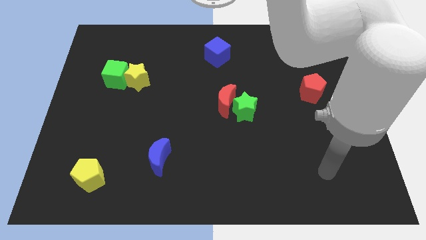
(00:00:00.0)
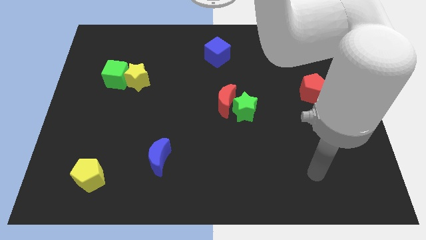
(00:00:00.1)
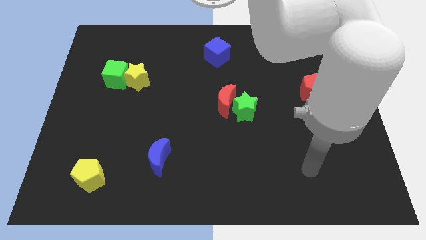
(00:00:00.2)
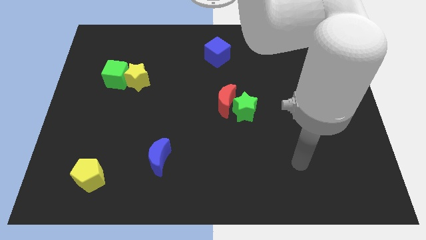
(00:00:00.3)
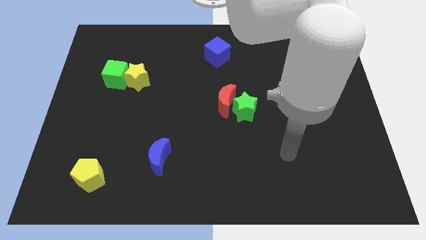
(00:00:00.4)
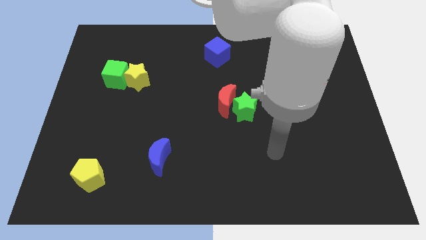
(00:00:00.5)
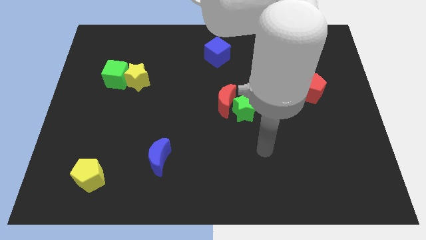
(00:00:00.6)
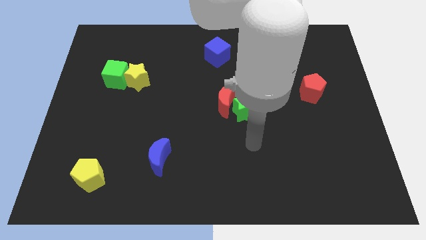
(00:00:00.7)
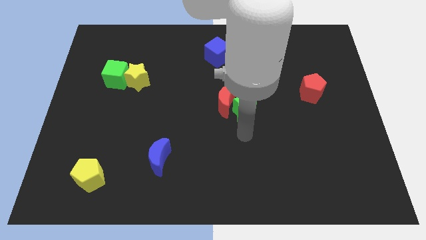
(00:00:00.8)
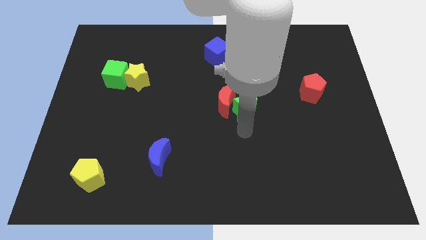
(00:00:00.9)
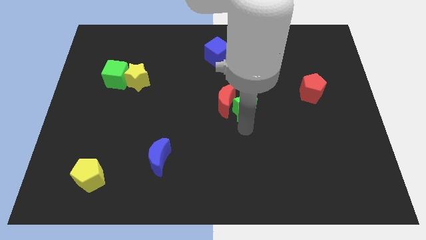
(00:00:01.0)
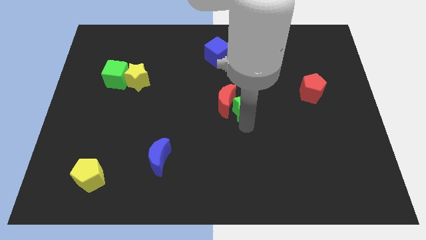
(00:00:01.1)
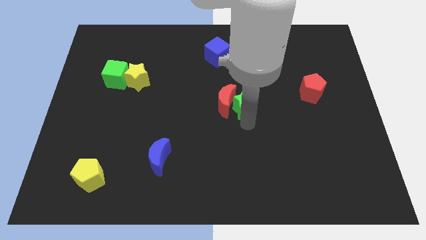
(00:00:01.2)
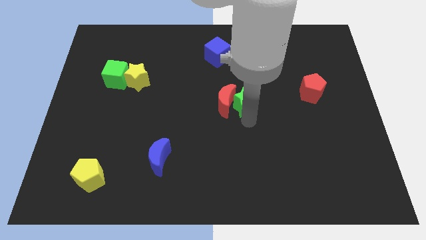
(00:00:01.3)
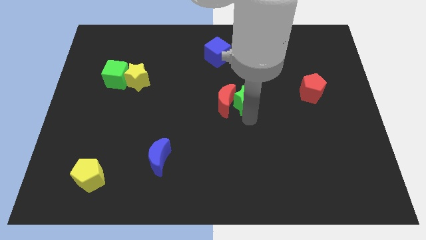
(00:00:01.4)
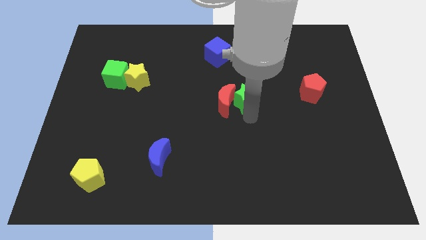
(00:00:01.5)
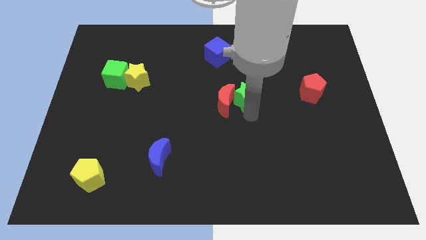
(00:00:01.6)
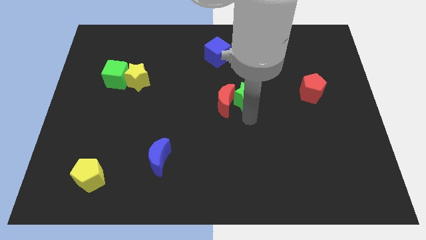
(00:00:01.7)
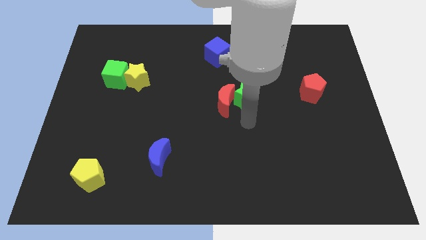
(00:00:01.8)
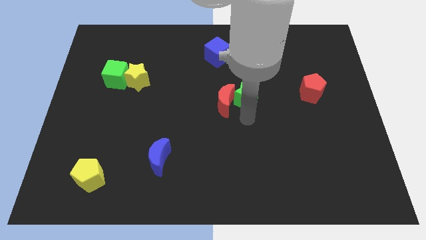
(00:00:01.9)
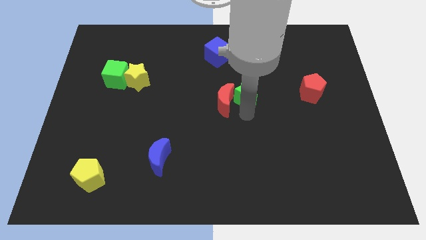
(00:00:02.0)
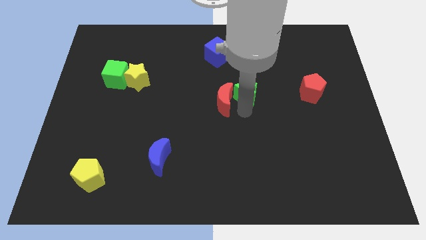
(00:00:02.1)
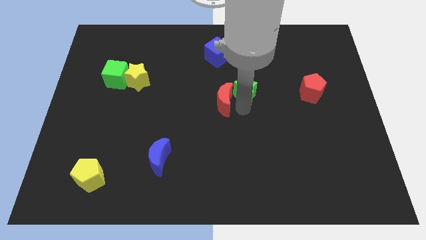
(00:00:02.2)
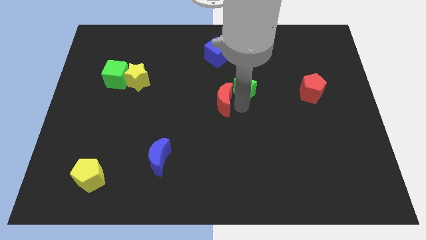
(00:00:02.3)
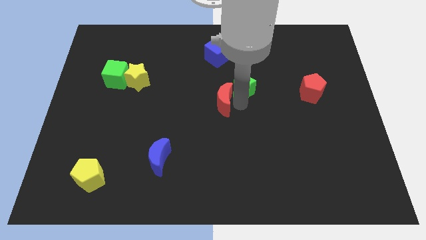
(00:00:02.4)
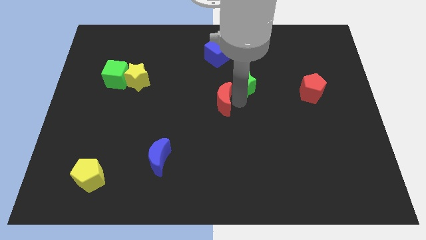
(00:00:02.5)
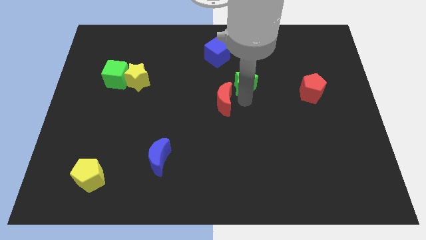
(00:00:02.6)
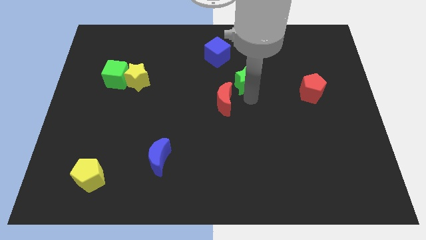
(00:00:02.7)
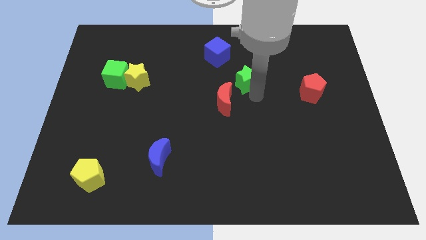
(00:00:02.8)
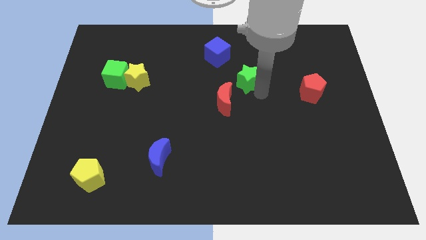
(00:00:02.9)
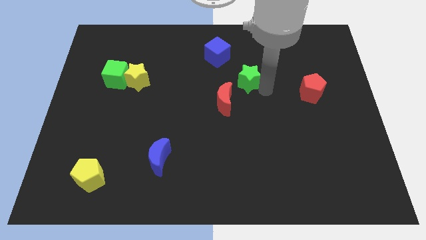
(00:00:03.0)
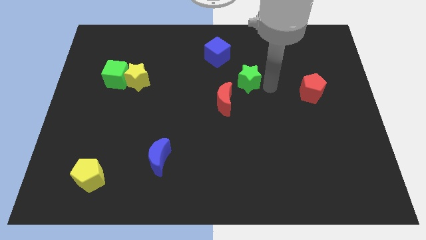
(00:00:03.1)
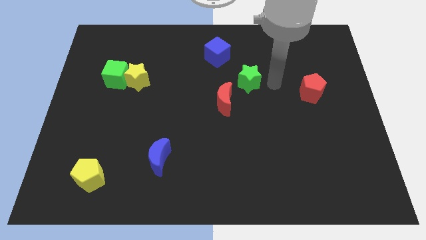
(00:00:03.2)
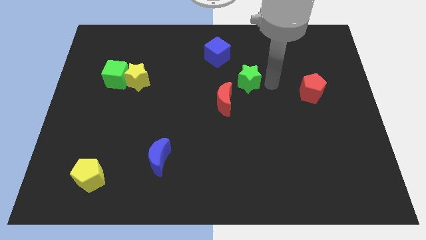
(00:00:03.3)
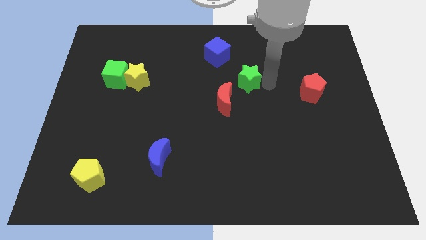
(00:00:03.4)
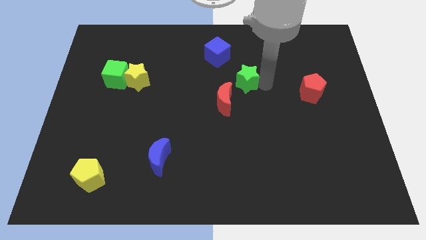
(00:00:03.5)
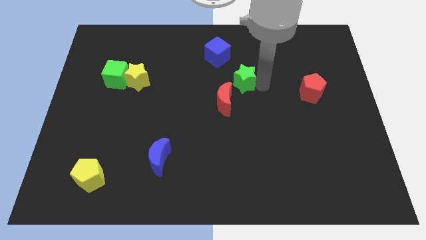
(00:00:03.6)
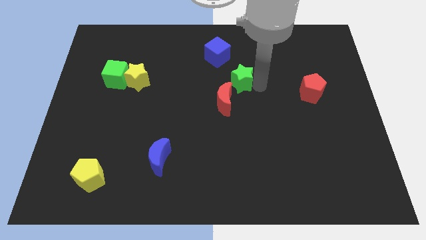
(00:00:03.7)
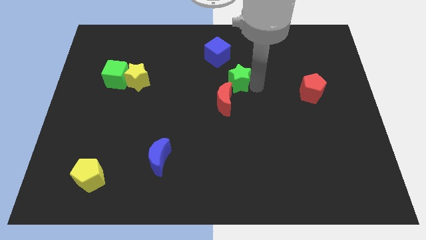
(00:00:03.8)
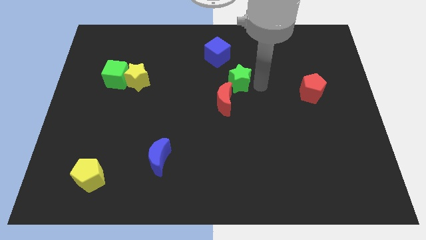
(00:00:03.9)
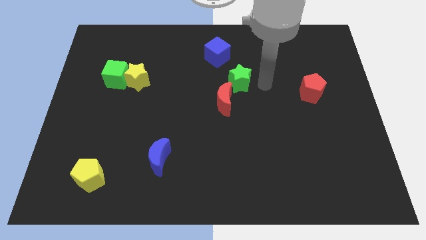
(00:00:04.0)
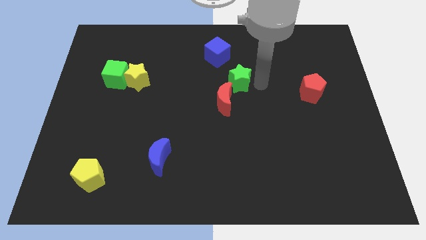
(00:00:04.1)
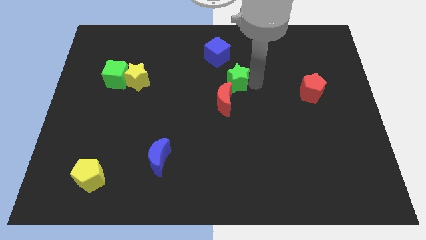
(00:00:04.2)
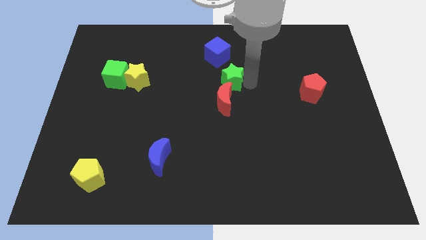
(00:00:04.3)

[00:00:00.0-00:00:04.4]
slide the green star upwards and then left a little bit

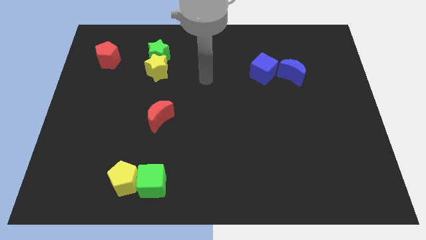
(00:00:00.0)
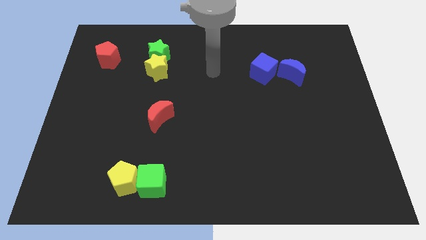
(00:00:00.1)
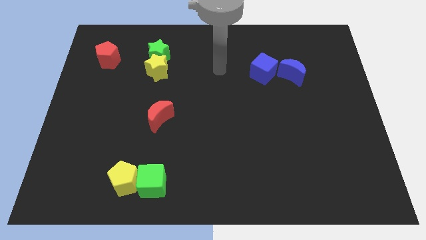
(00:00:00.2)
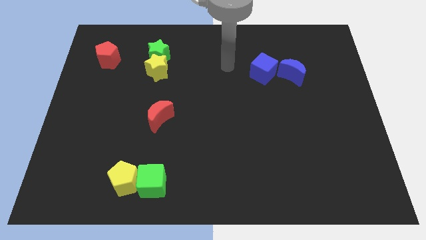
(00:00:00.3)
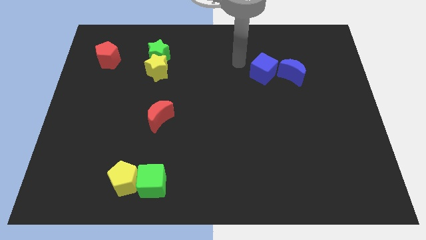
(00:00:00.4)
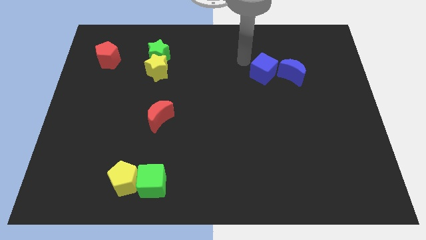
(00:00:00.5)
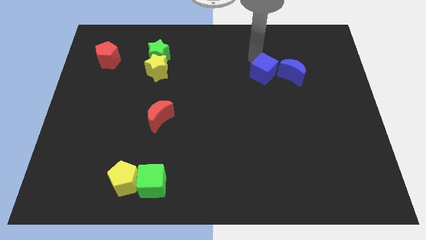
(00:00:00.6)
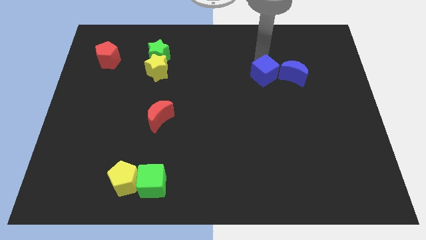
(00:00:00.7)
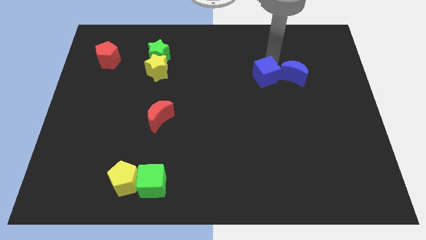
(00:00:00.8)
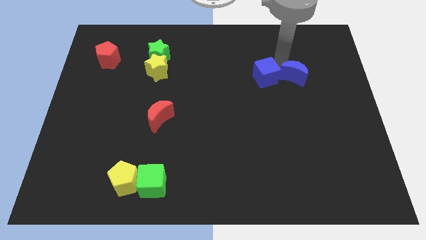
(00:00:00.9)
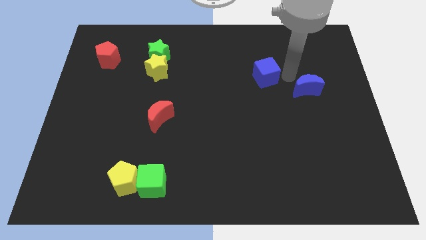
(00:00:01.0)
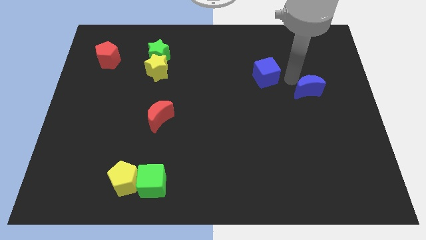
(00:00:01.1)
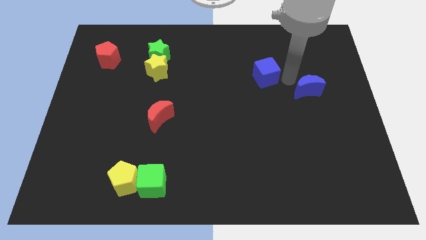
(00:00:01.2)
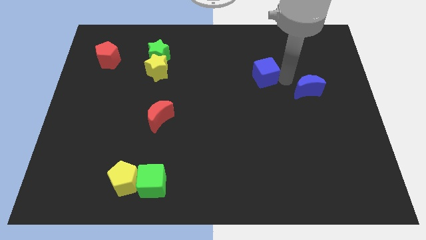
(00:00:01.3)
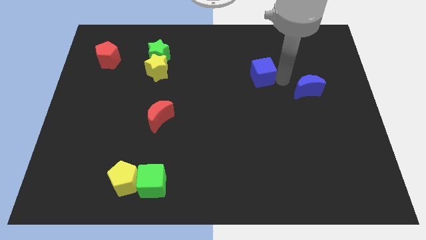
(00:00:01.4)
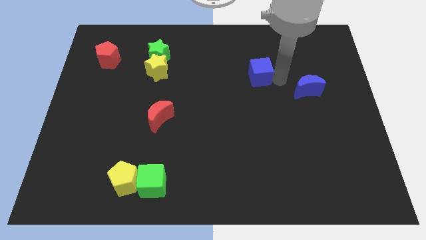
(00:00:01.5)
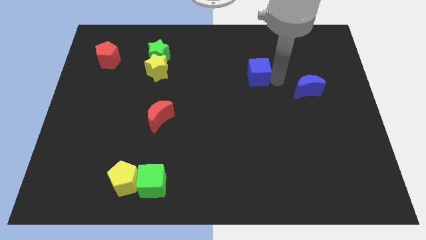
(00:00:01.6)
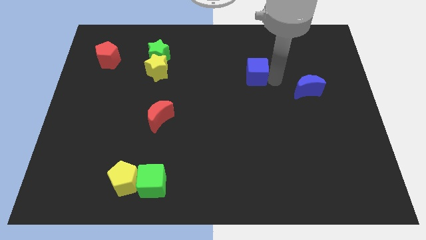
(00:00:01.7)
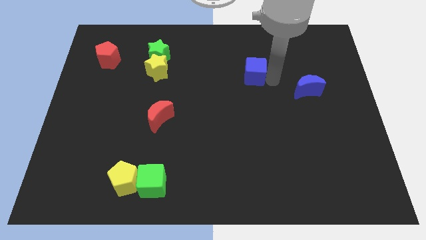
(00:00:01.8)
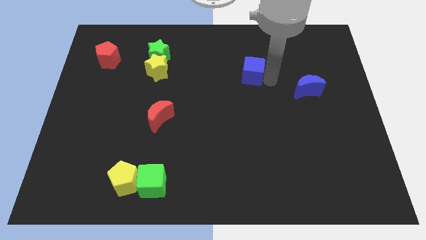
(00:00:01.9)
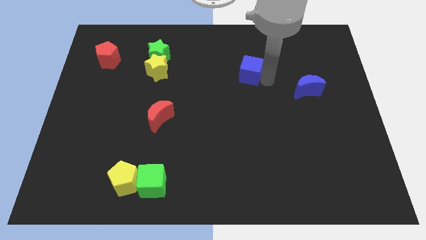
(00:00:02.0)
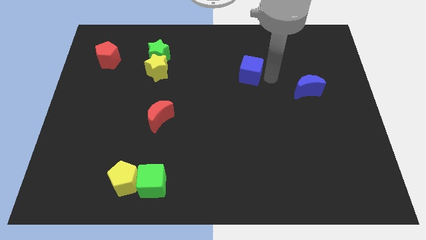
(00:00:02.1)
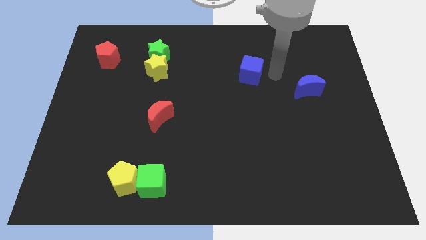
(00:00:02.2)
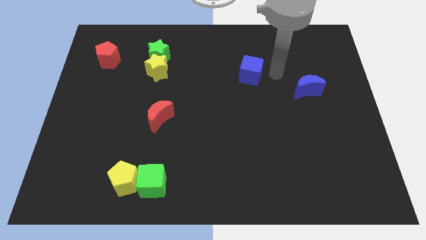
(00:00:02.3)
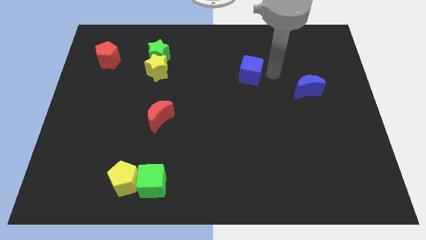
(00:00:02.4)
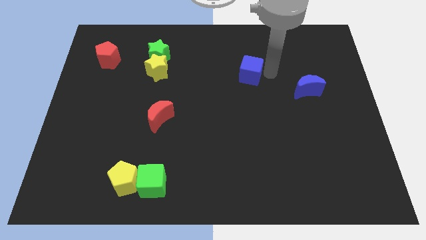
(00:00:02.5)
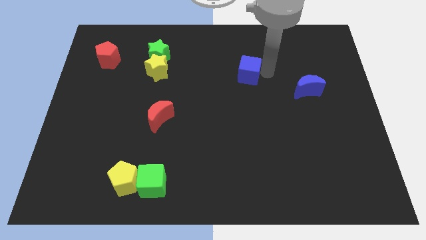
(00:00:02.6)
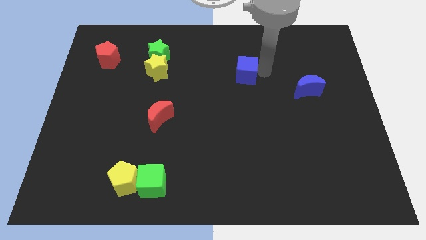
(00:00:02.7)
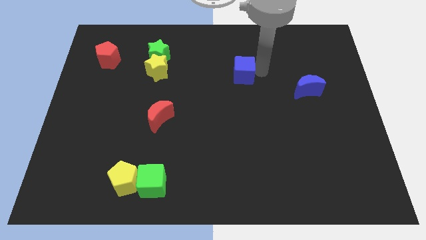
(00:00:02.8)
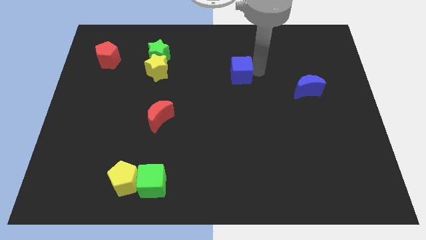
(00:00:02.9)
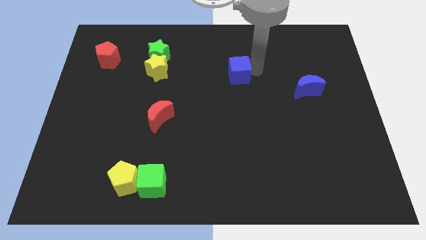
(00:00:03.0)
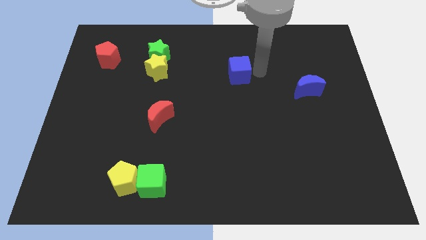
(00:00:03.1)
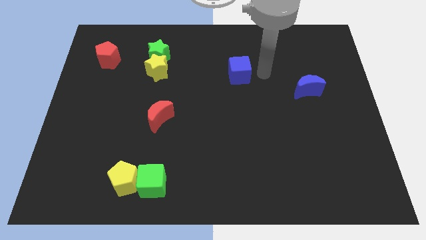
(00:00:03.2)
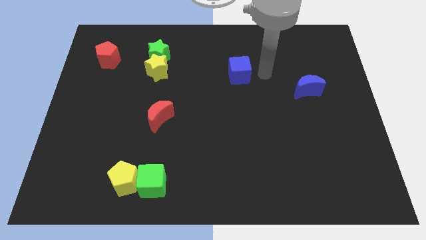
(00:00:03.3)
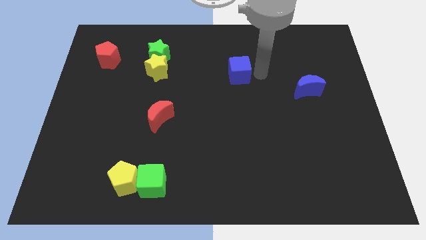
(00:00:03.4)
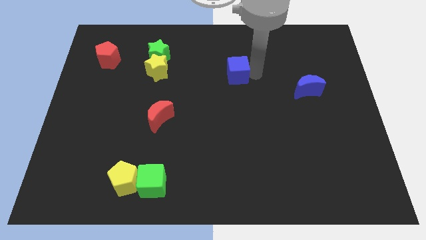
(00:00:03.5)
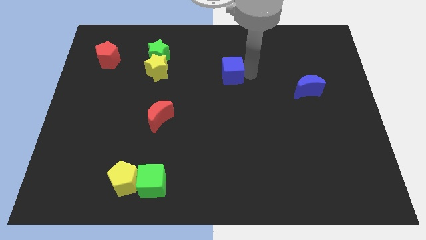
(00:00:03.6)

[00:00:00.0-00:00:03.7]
move the blue cube somewhat to the left

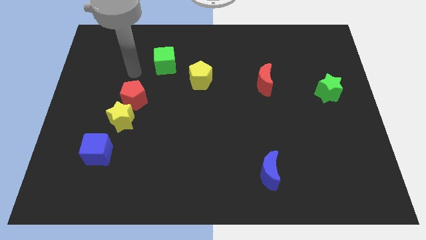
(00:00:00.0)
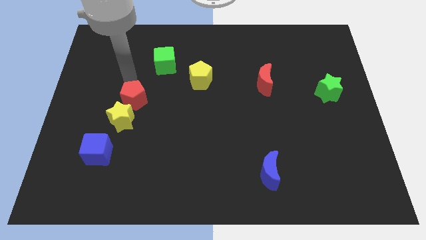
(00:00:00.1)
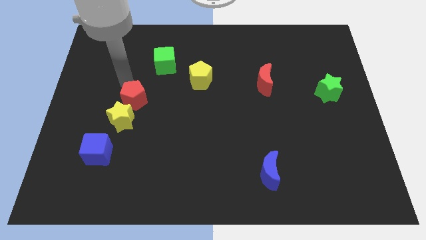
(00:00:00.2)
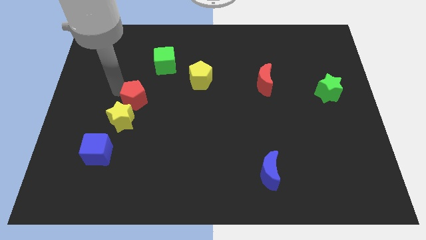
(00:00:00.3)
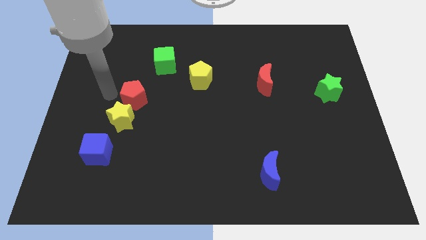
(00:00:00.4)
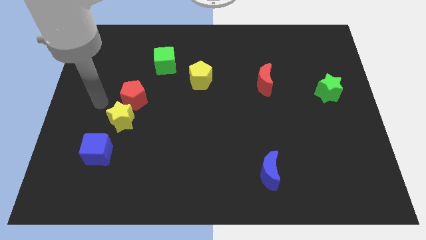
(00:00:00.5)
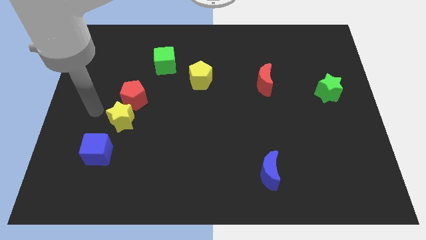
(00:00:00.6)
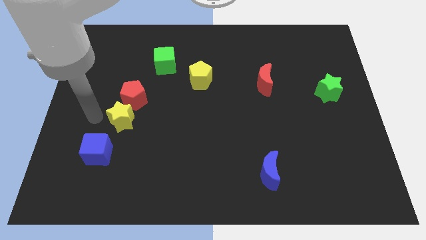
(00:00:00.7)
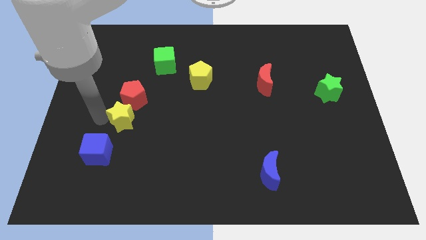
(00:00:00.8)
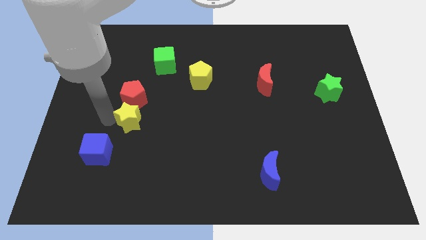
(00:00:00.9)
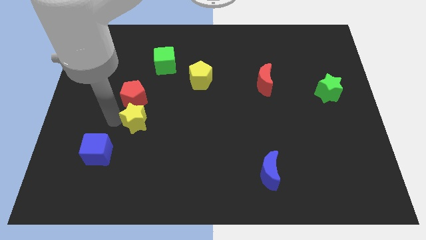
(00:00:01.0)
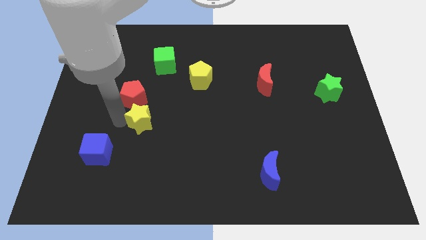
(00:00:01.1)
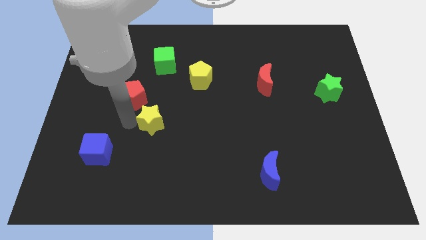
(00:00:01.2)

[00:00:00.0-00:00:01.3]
slide the yellow star somewhat right
